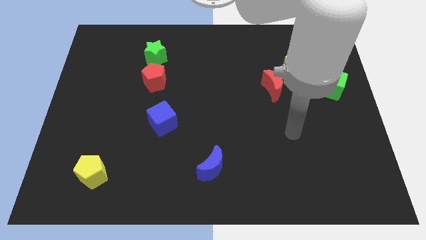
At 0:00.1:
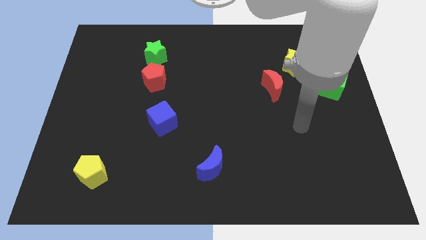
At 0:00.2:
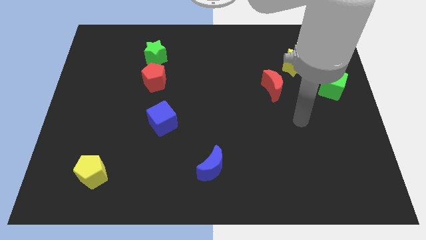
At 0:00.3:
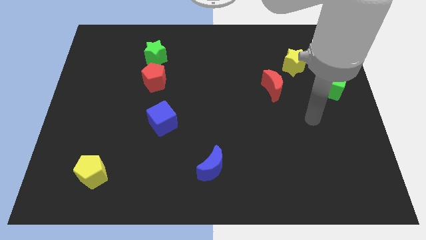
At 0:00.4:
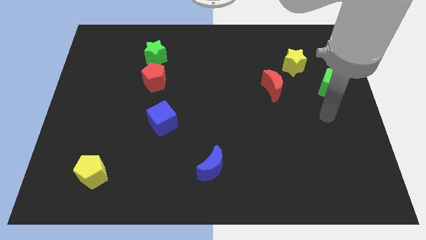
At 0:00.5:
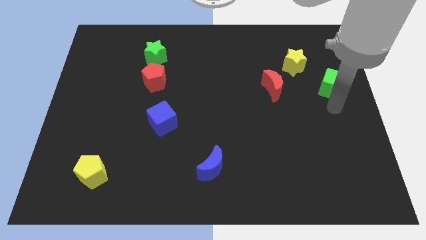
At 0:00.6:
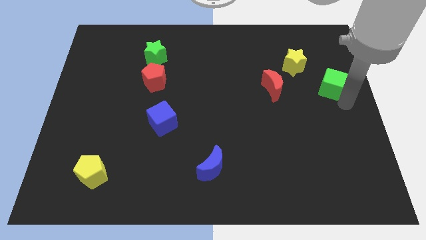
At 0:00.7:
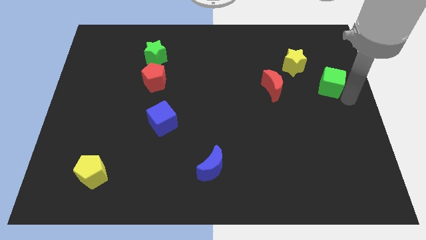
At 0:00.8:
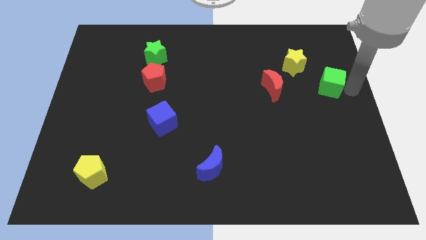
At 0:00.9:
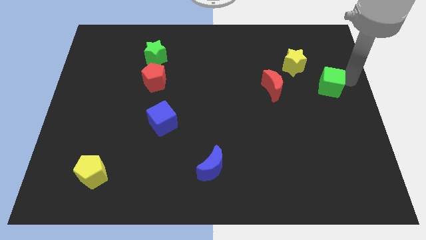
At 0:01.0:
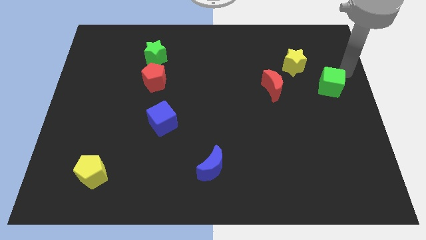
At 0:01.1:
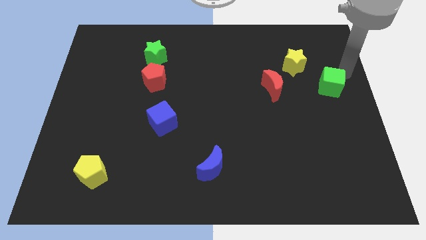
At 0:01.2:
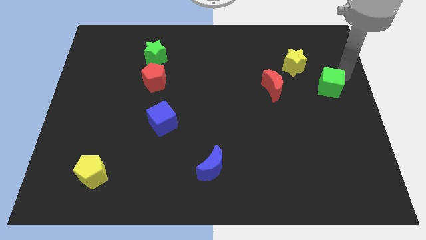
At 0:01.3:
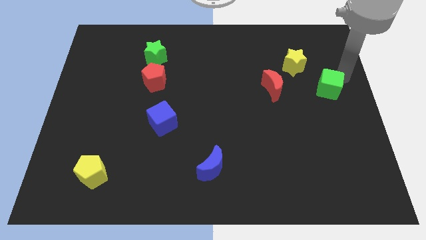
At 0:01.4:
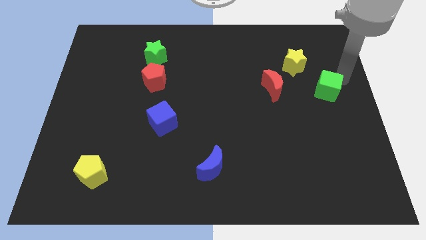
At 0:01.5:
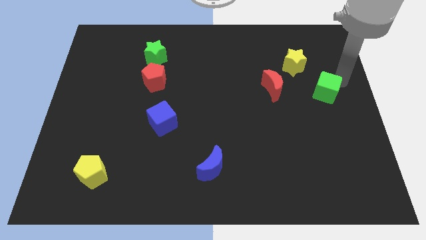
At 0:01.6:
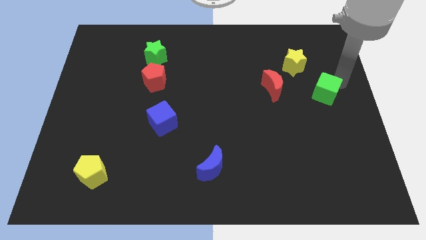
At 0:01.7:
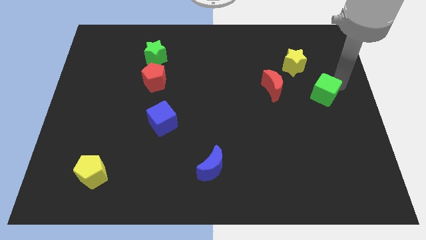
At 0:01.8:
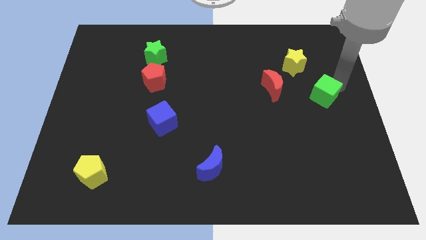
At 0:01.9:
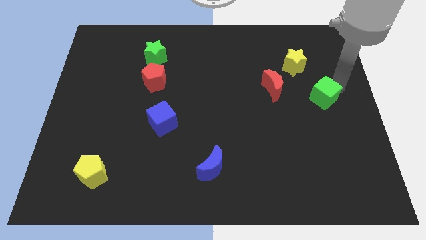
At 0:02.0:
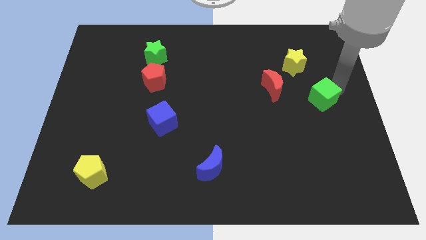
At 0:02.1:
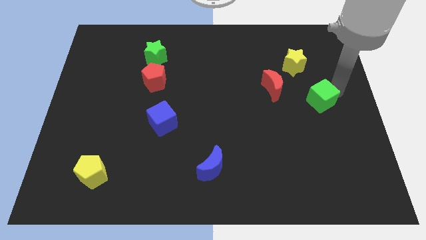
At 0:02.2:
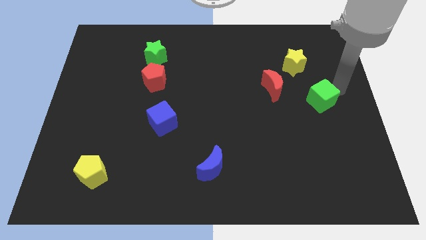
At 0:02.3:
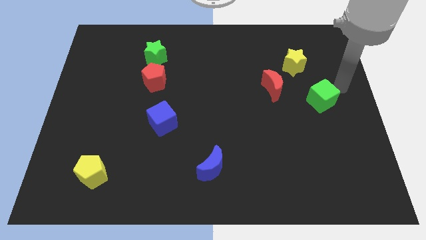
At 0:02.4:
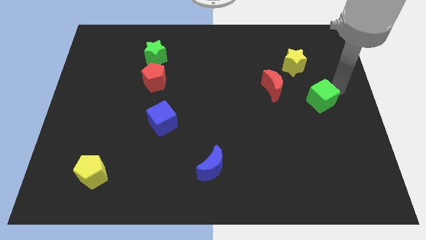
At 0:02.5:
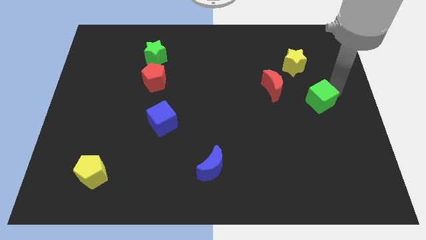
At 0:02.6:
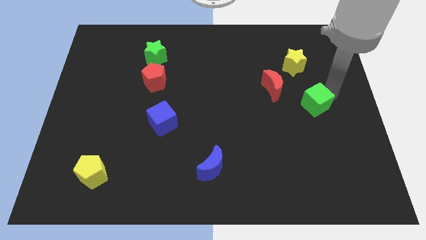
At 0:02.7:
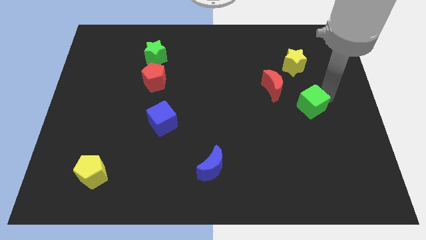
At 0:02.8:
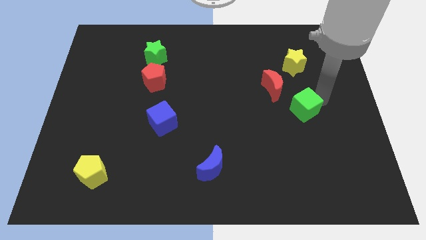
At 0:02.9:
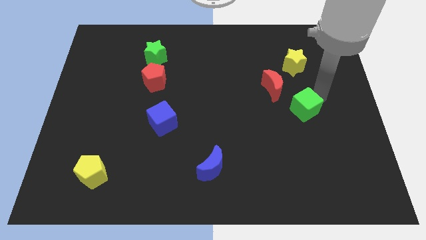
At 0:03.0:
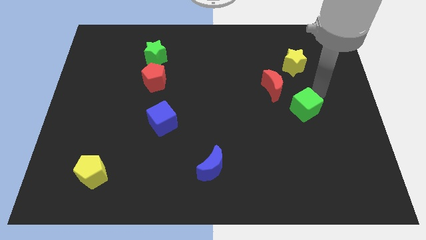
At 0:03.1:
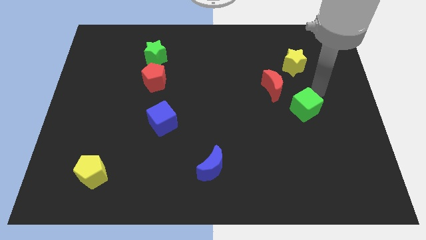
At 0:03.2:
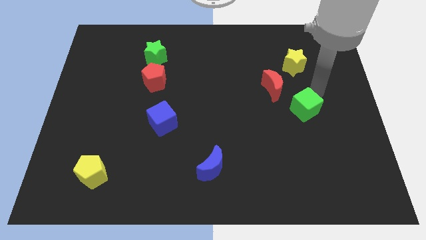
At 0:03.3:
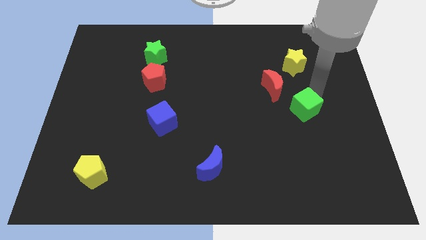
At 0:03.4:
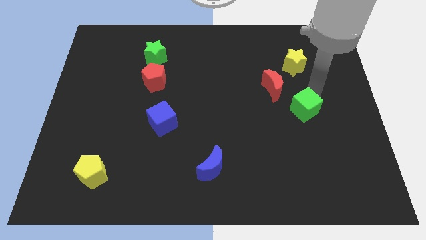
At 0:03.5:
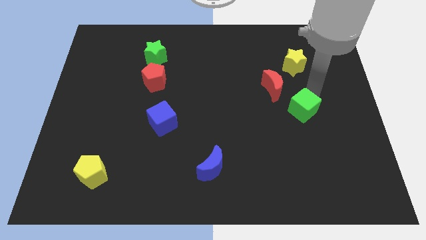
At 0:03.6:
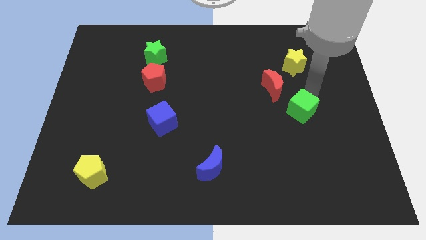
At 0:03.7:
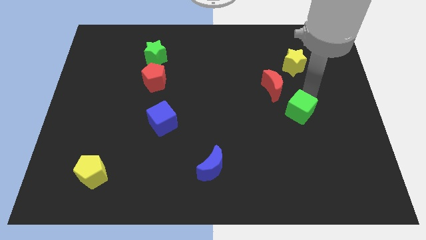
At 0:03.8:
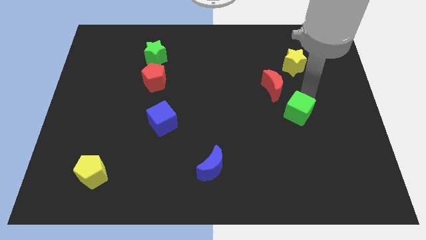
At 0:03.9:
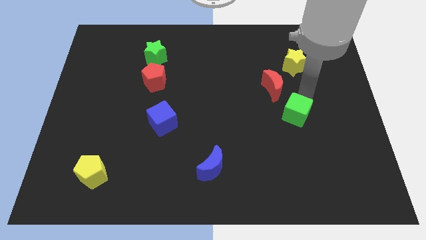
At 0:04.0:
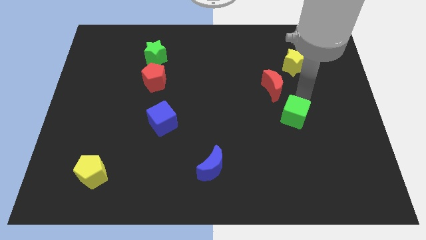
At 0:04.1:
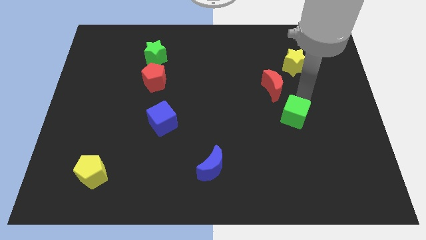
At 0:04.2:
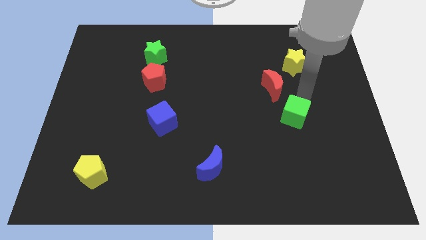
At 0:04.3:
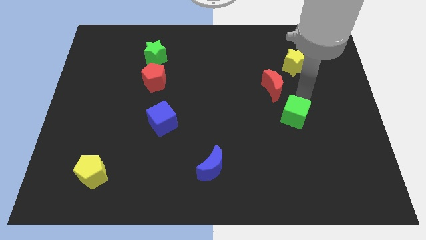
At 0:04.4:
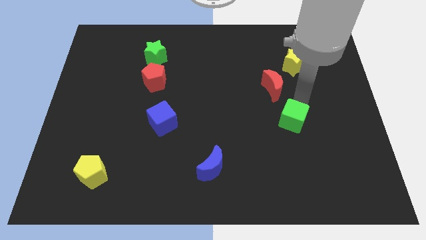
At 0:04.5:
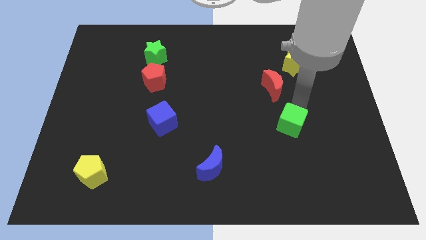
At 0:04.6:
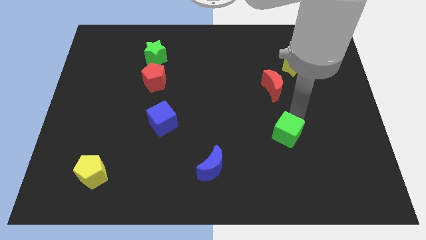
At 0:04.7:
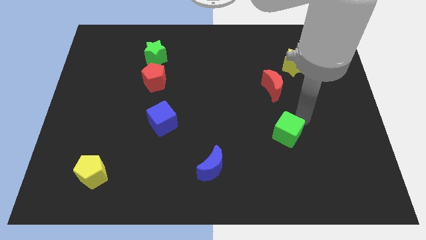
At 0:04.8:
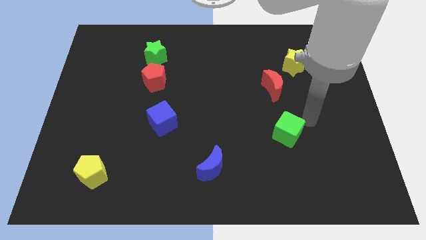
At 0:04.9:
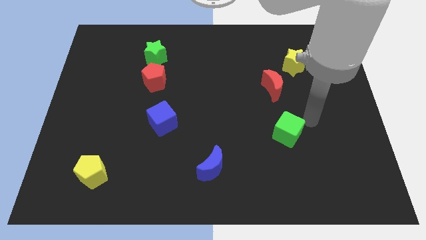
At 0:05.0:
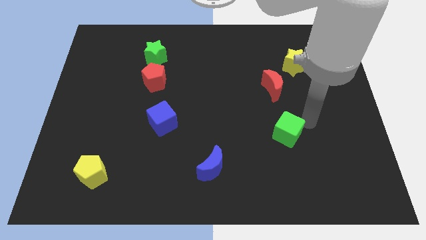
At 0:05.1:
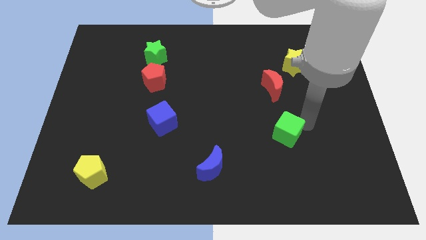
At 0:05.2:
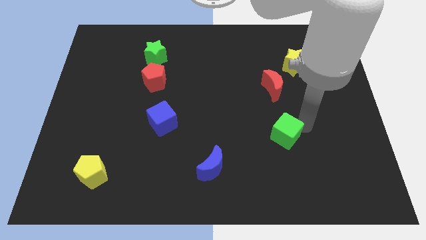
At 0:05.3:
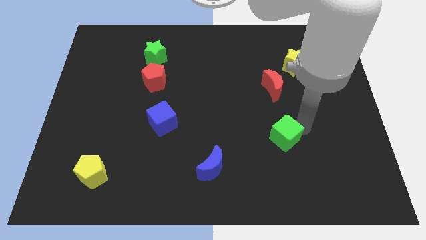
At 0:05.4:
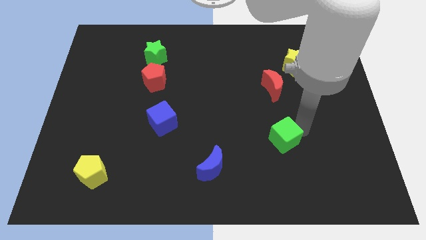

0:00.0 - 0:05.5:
push the green cube diagonally downwards and to the left

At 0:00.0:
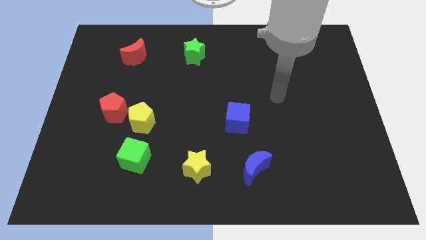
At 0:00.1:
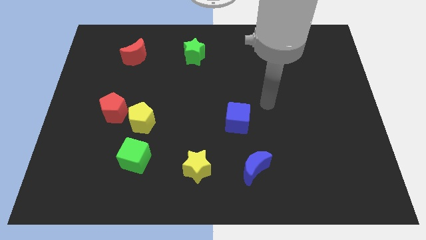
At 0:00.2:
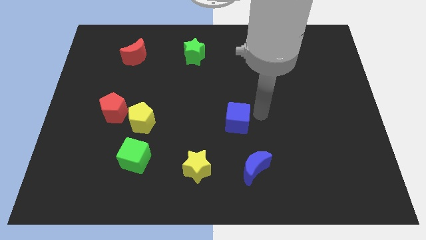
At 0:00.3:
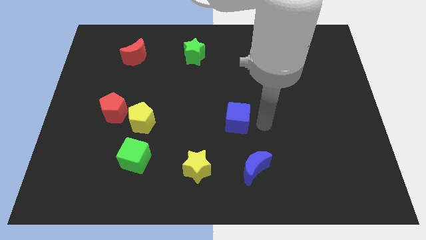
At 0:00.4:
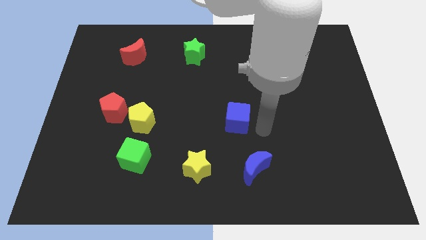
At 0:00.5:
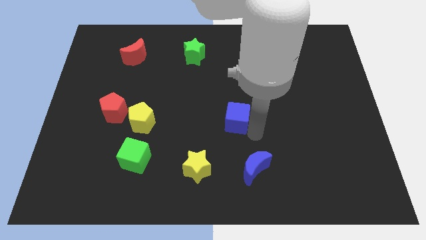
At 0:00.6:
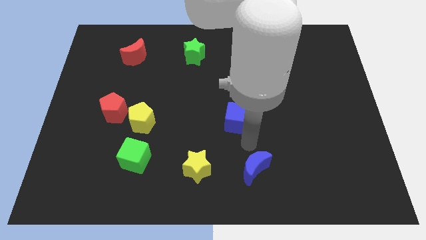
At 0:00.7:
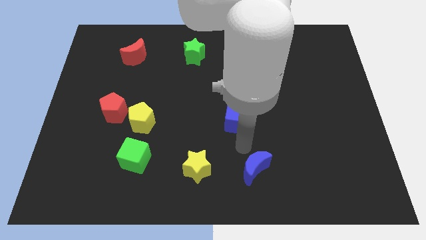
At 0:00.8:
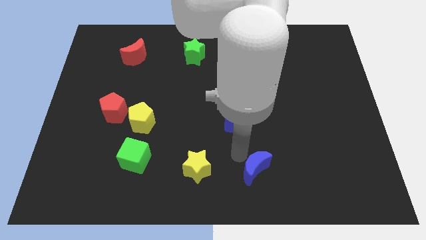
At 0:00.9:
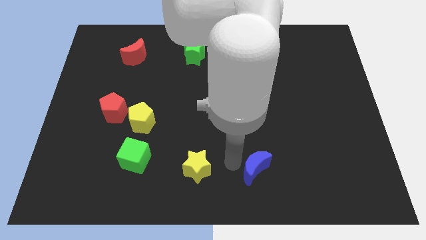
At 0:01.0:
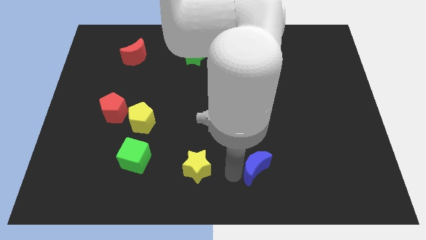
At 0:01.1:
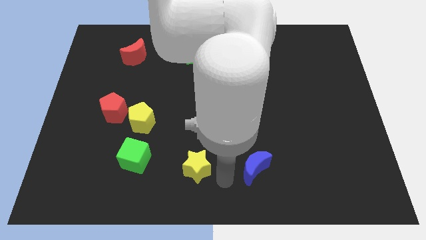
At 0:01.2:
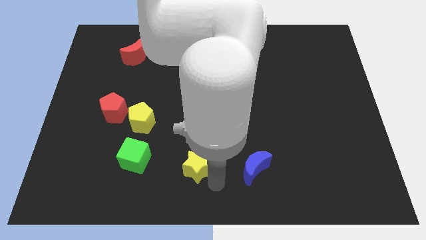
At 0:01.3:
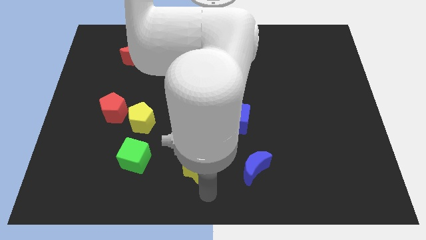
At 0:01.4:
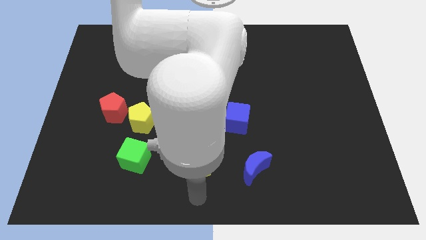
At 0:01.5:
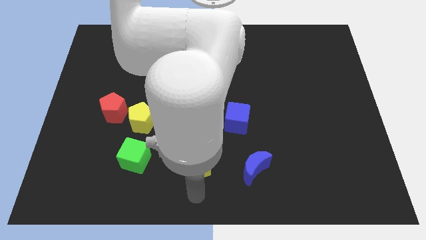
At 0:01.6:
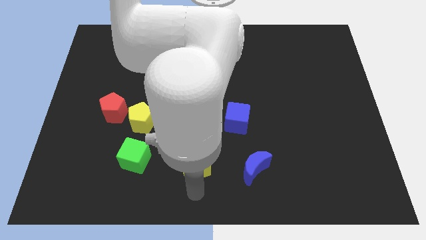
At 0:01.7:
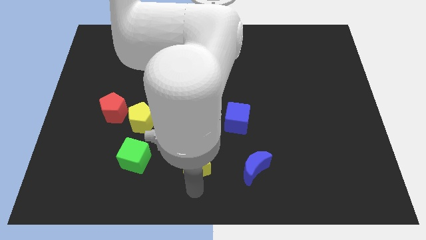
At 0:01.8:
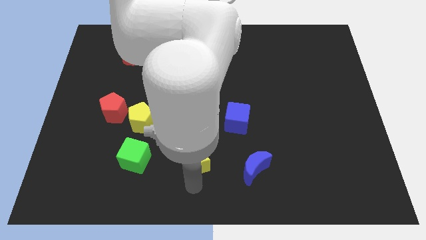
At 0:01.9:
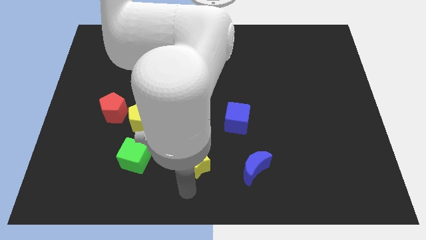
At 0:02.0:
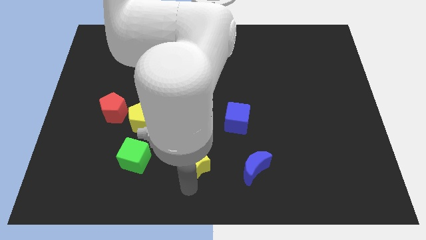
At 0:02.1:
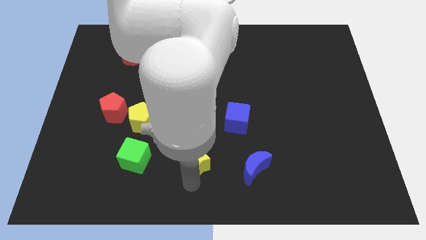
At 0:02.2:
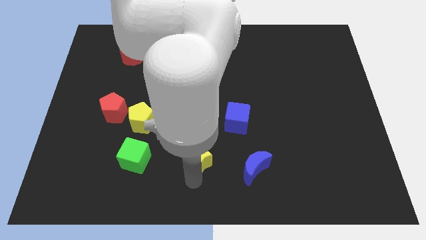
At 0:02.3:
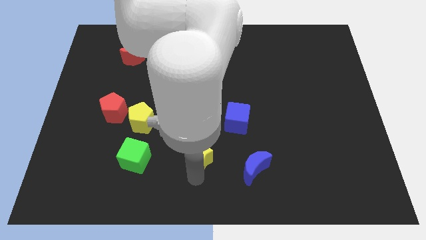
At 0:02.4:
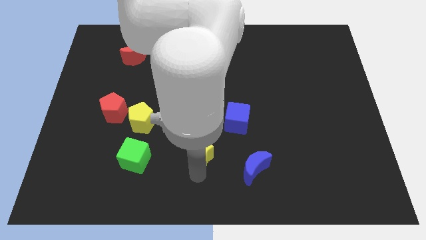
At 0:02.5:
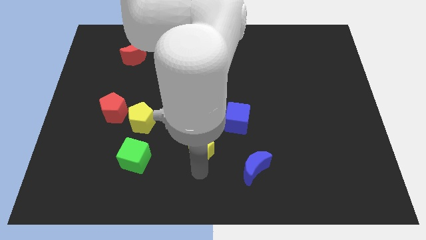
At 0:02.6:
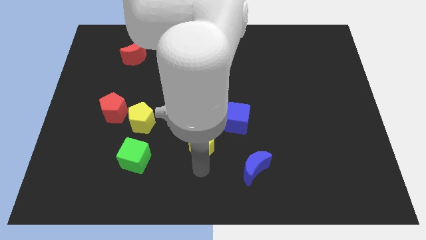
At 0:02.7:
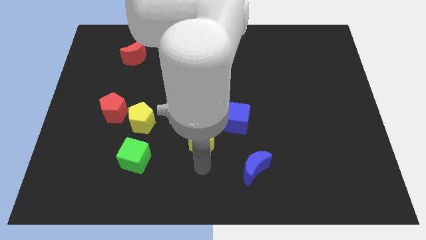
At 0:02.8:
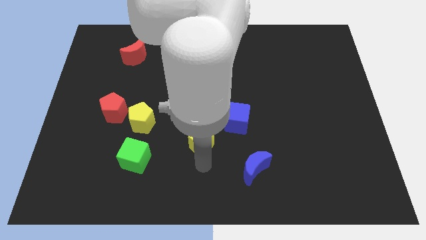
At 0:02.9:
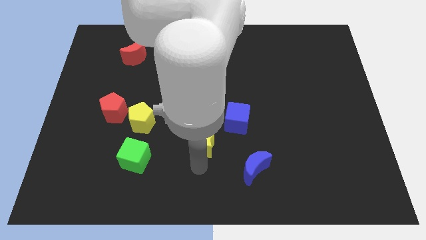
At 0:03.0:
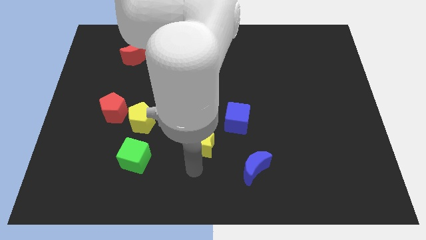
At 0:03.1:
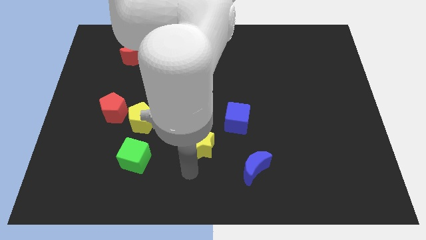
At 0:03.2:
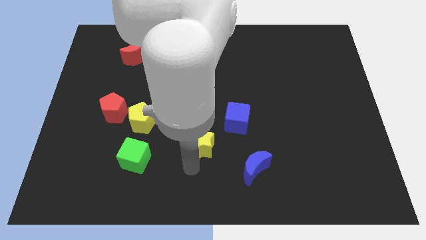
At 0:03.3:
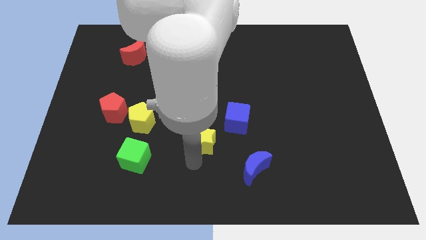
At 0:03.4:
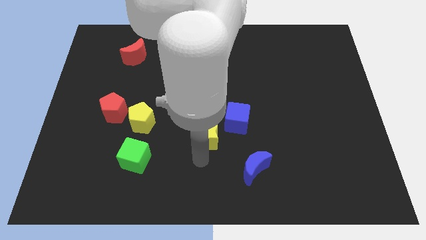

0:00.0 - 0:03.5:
slide the yellow star upwards slightly
